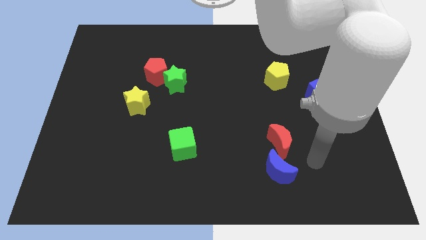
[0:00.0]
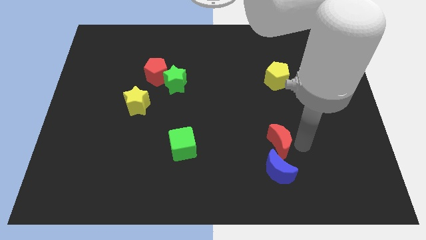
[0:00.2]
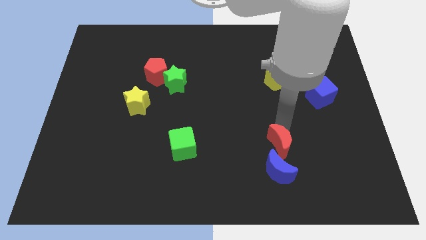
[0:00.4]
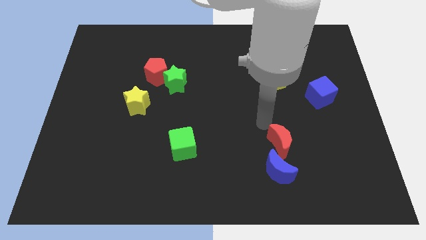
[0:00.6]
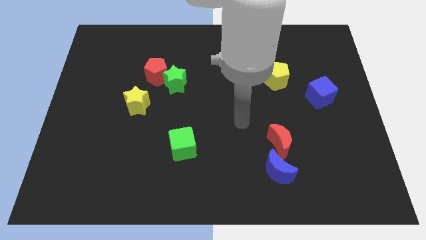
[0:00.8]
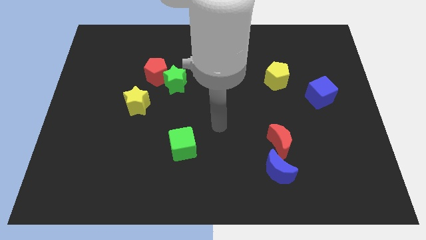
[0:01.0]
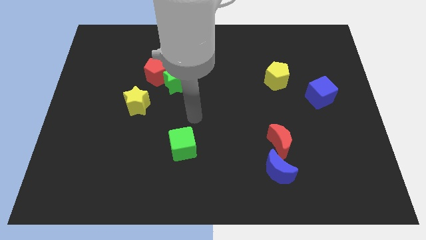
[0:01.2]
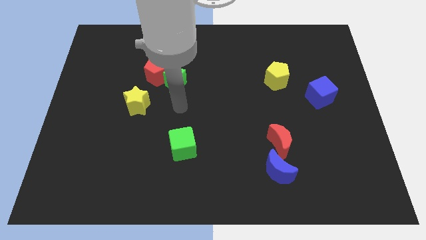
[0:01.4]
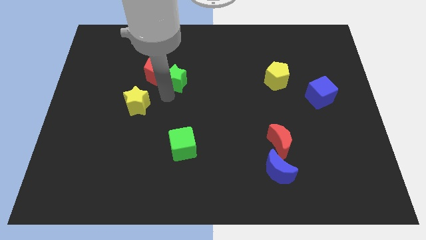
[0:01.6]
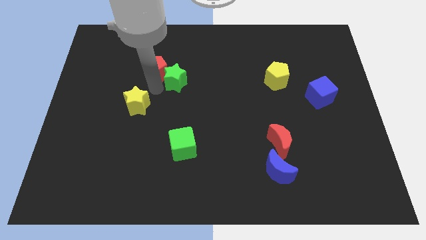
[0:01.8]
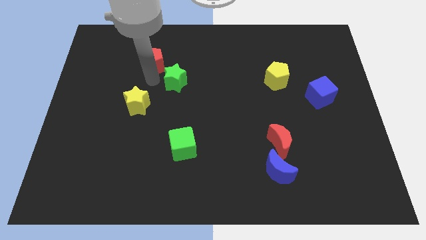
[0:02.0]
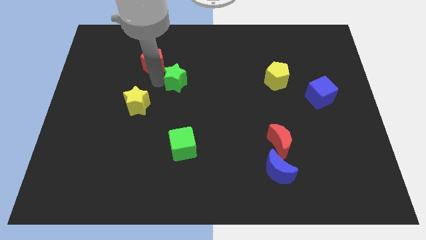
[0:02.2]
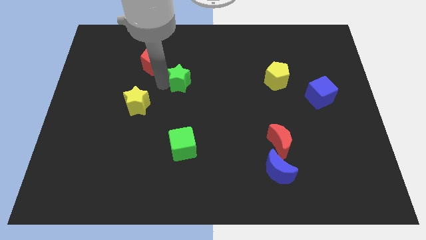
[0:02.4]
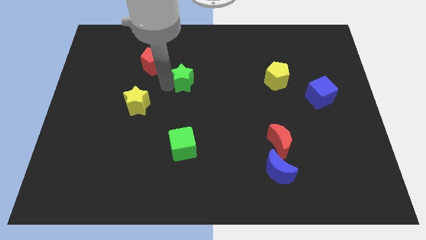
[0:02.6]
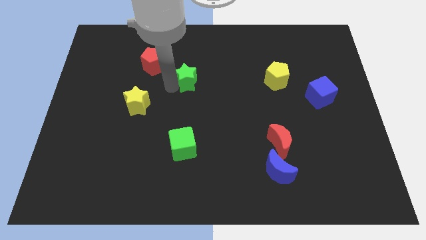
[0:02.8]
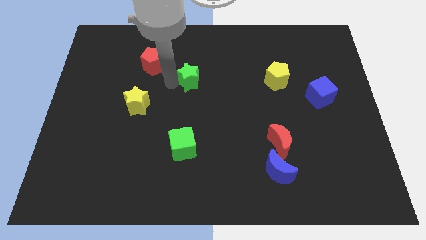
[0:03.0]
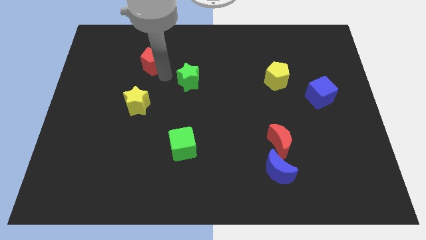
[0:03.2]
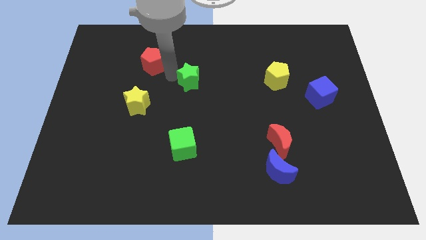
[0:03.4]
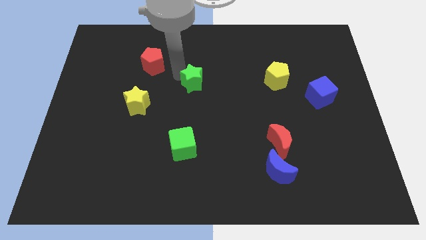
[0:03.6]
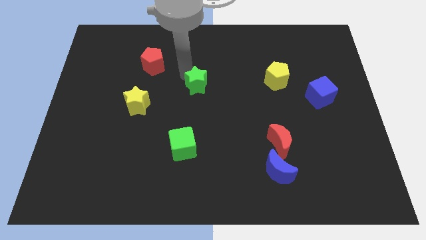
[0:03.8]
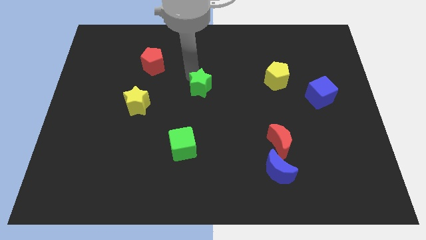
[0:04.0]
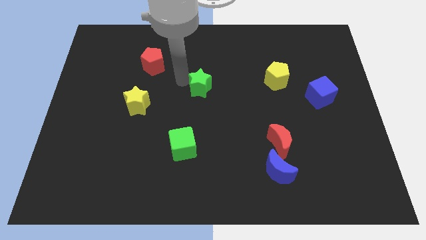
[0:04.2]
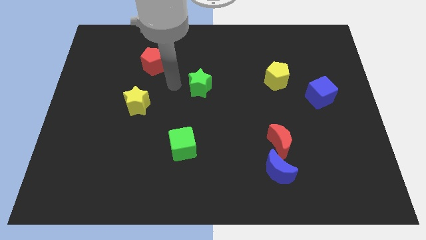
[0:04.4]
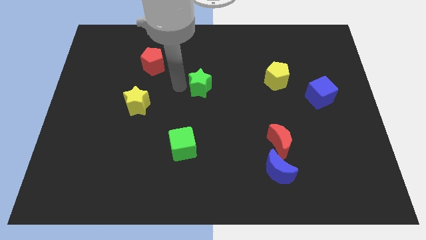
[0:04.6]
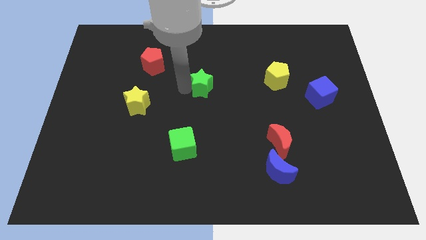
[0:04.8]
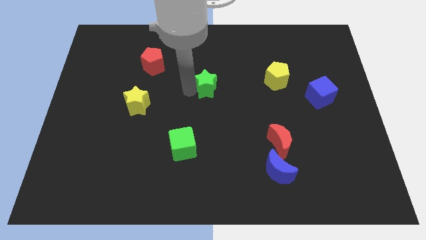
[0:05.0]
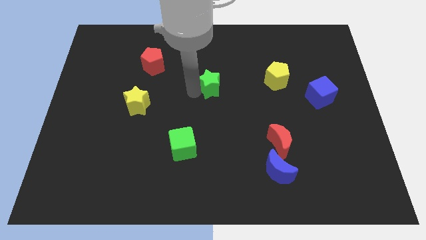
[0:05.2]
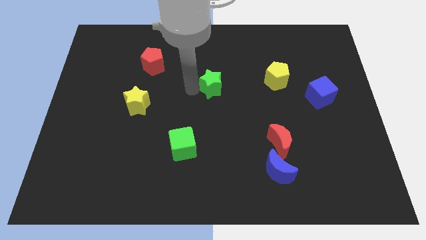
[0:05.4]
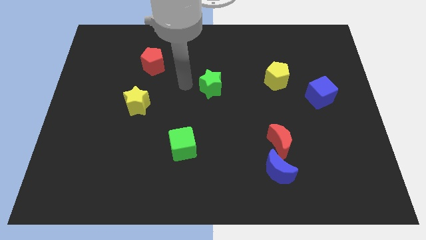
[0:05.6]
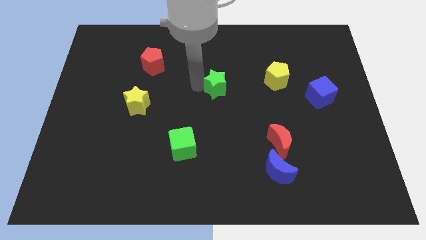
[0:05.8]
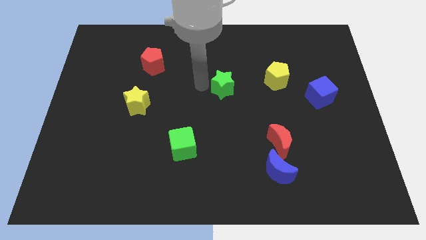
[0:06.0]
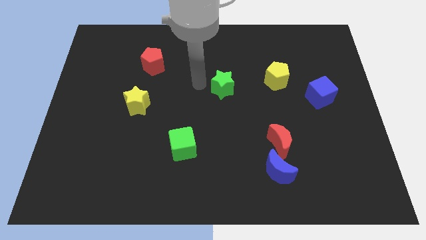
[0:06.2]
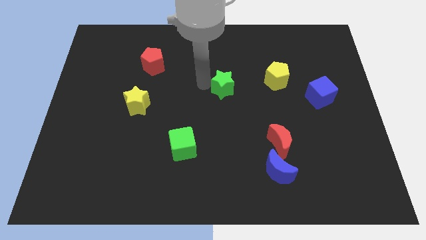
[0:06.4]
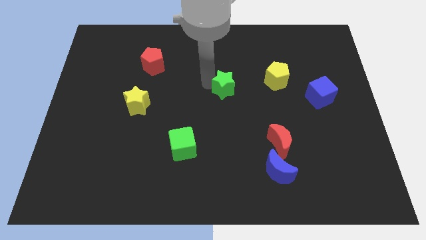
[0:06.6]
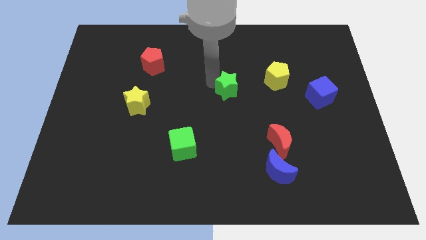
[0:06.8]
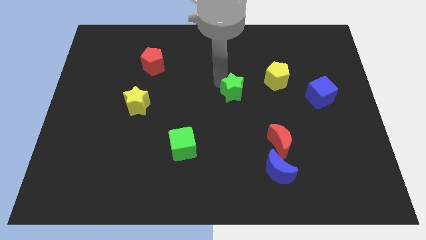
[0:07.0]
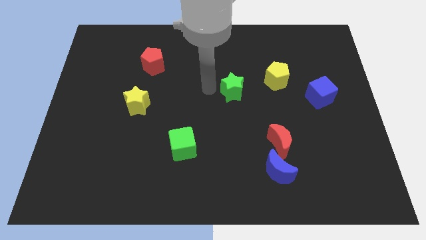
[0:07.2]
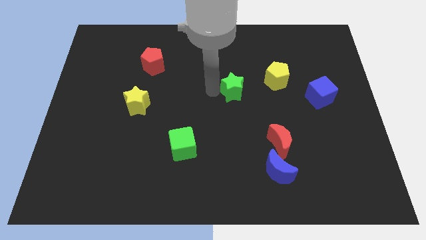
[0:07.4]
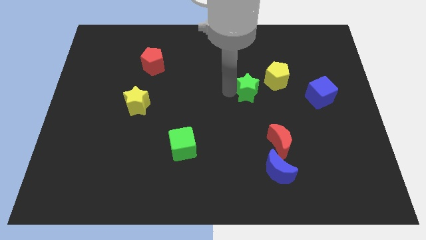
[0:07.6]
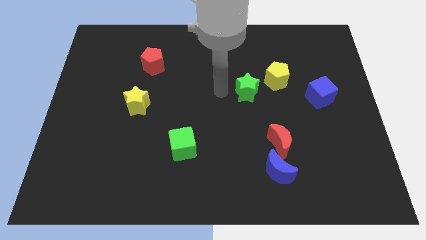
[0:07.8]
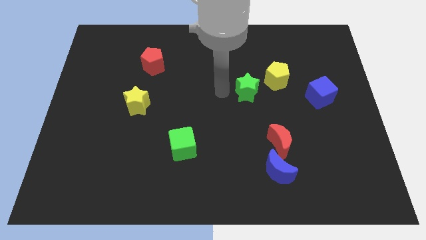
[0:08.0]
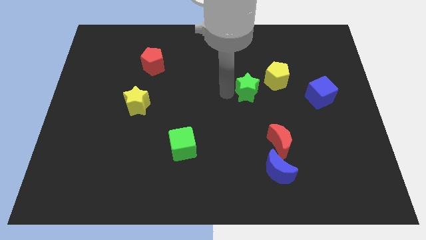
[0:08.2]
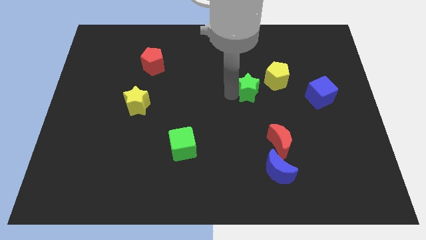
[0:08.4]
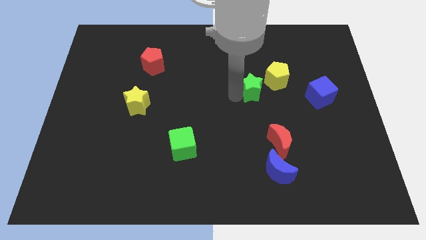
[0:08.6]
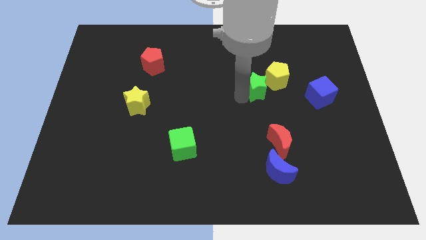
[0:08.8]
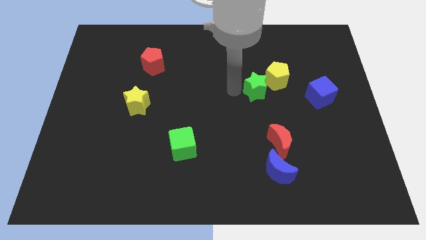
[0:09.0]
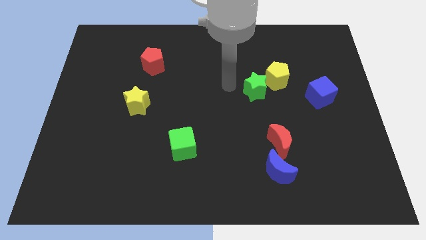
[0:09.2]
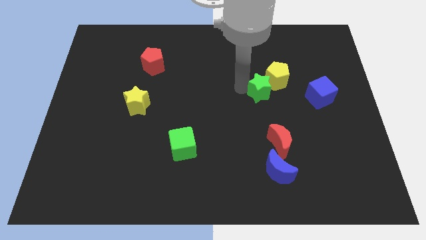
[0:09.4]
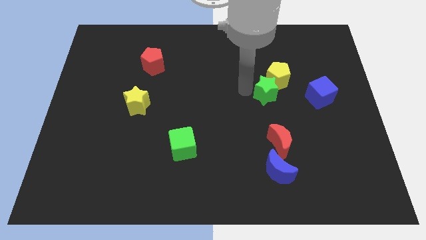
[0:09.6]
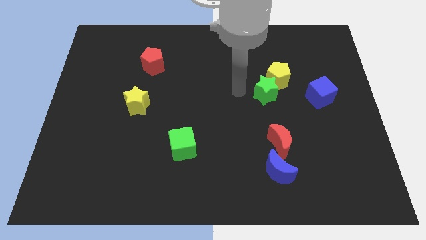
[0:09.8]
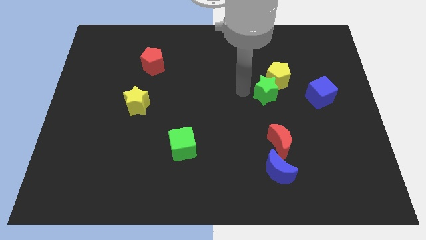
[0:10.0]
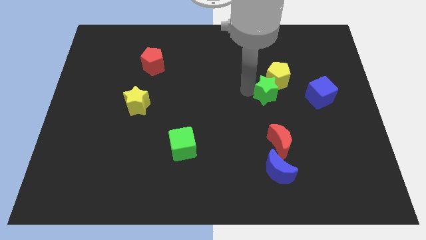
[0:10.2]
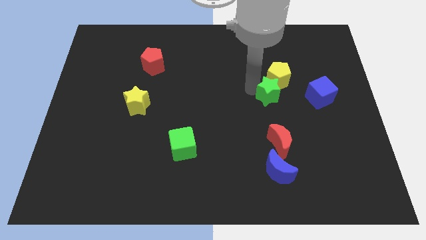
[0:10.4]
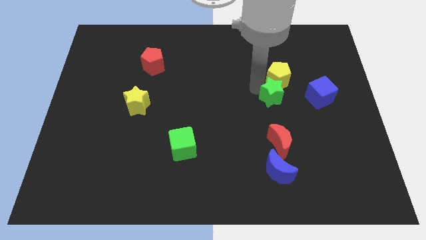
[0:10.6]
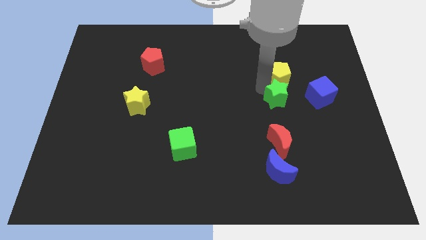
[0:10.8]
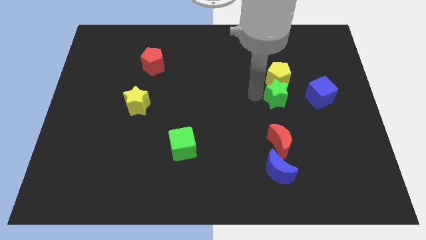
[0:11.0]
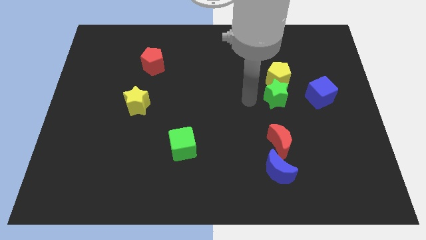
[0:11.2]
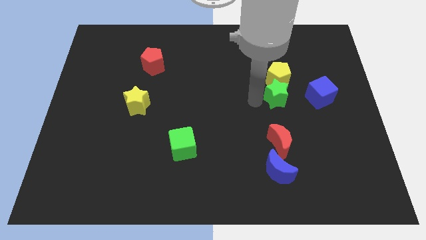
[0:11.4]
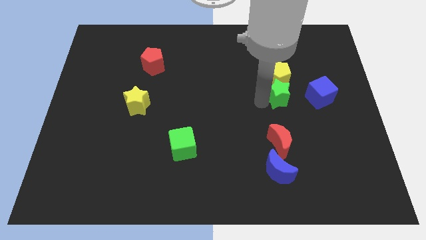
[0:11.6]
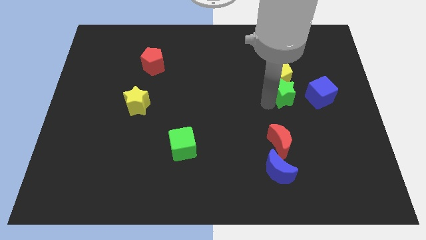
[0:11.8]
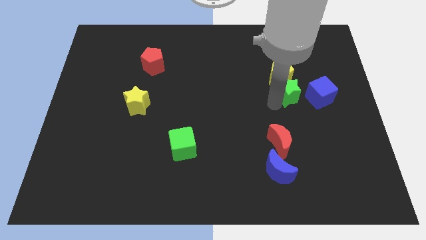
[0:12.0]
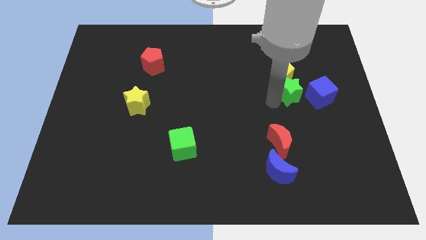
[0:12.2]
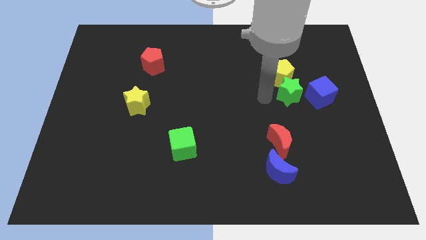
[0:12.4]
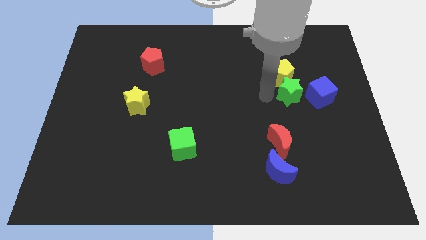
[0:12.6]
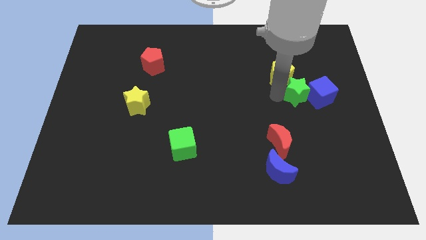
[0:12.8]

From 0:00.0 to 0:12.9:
put the green star next to the blue cube

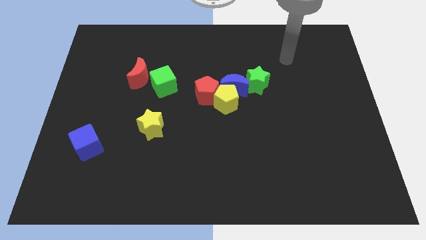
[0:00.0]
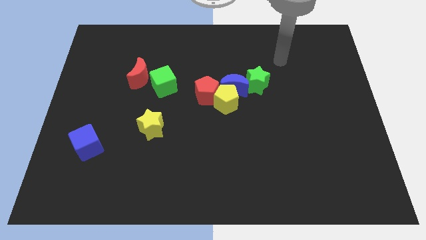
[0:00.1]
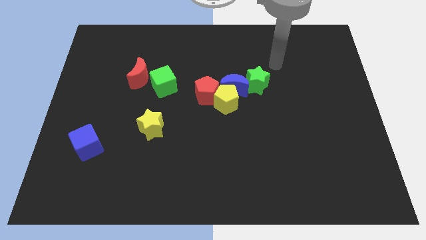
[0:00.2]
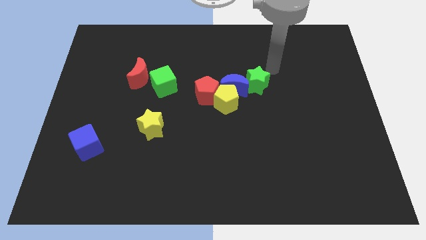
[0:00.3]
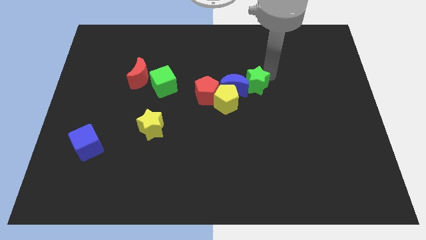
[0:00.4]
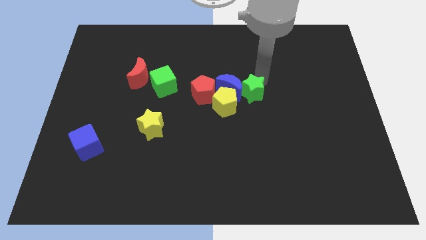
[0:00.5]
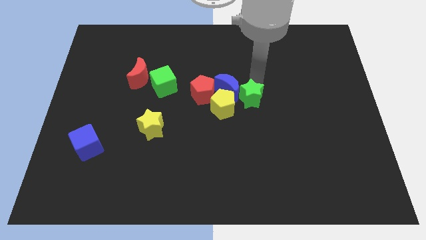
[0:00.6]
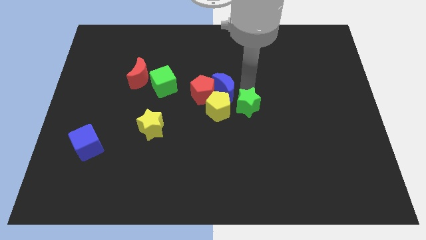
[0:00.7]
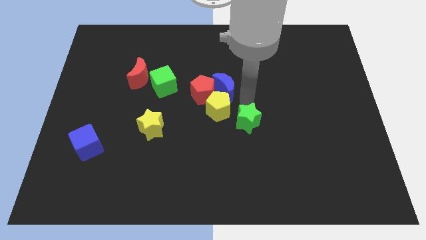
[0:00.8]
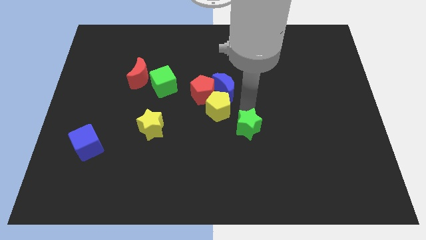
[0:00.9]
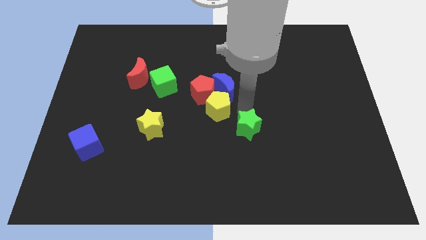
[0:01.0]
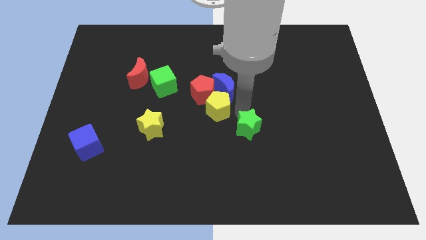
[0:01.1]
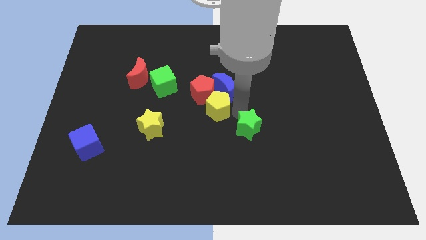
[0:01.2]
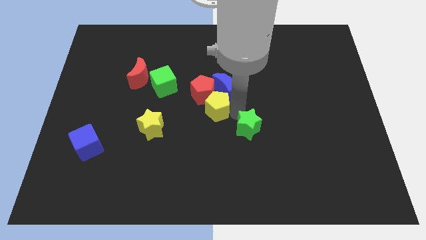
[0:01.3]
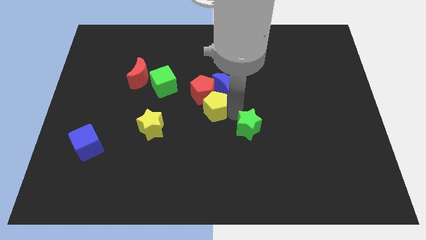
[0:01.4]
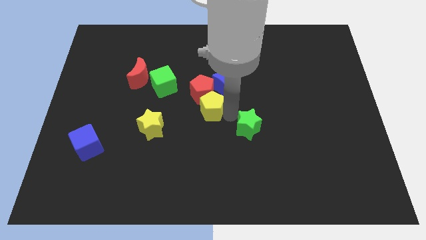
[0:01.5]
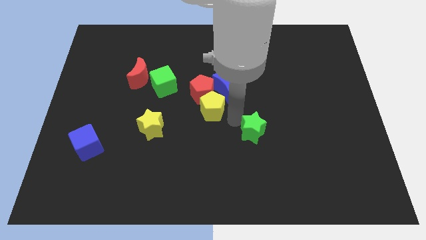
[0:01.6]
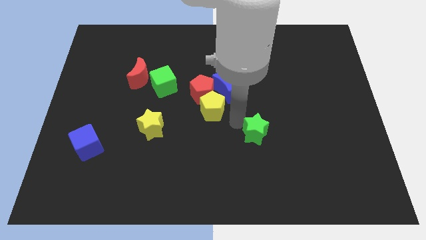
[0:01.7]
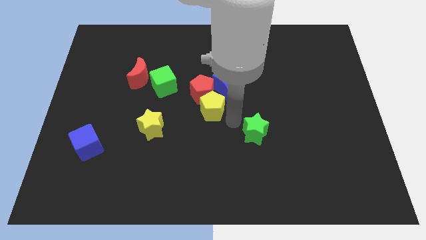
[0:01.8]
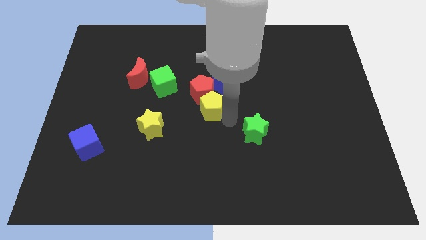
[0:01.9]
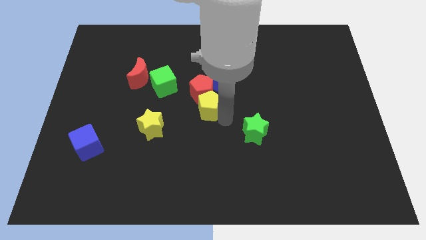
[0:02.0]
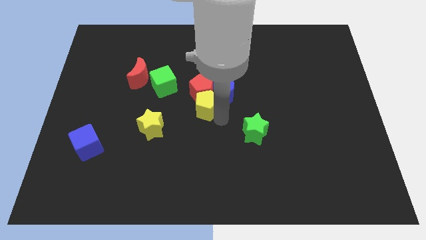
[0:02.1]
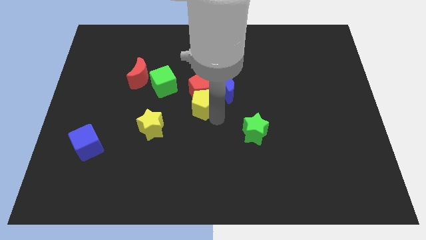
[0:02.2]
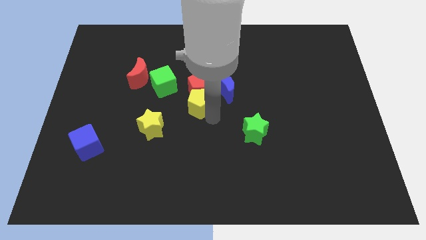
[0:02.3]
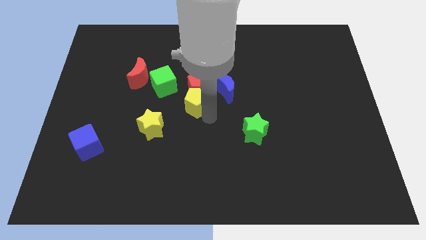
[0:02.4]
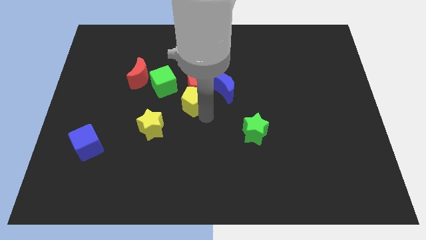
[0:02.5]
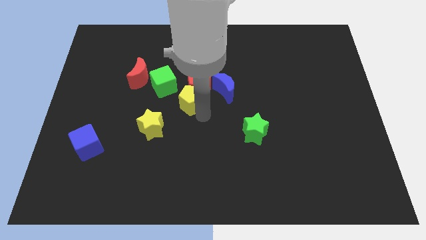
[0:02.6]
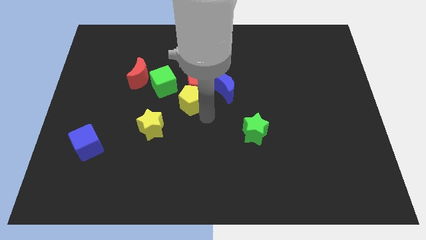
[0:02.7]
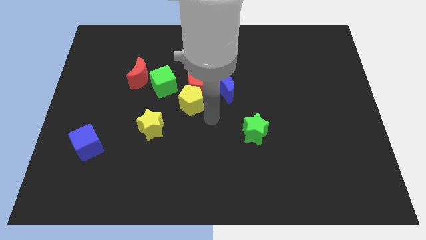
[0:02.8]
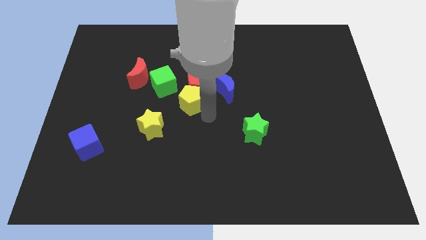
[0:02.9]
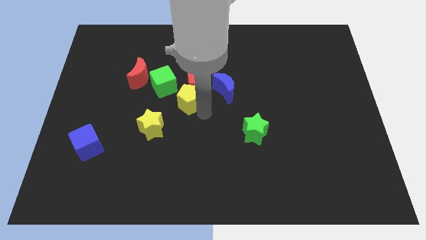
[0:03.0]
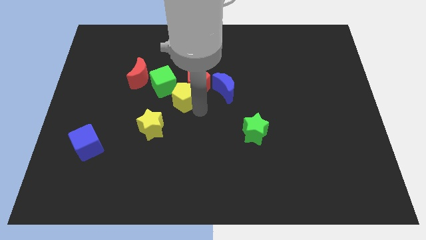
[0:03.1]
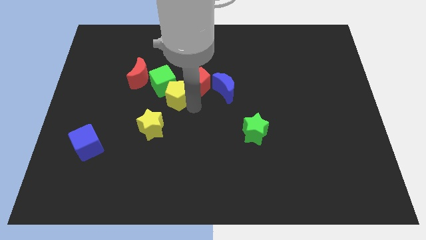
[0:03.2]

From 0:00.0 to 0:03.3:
move the yellow pentagon next to the green cube
